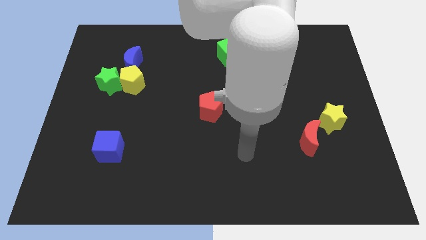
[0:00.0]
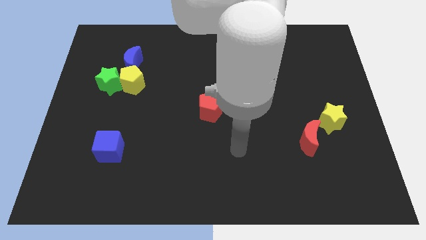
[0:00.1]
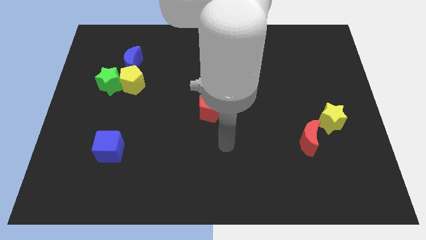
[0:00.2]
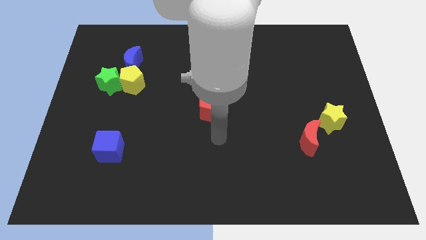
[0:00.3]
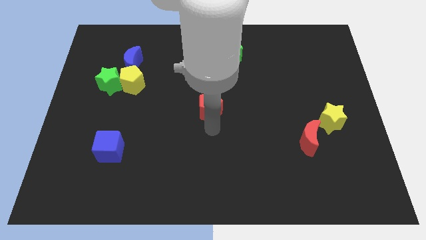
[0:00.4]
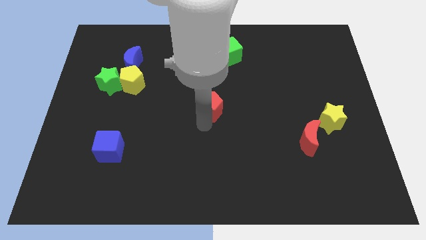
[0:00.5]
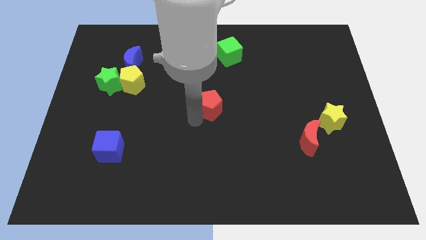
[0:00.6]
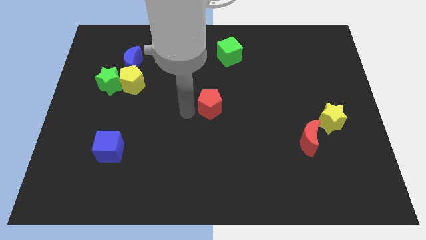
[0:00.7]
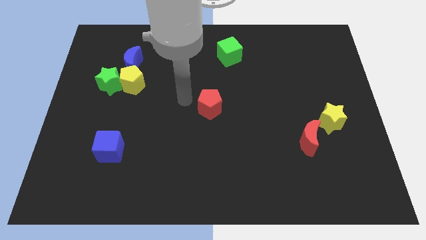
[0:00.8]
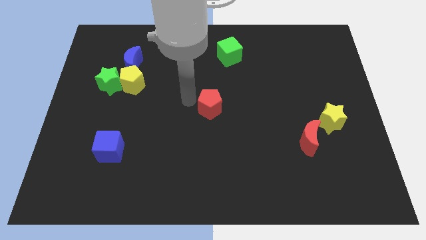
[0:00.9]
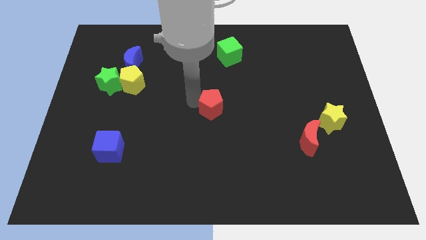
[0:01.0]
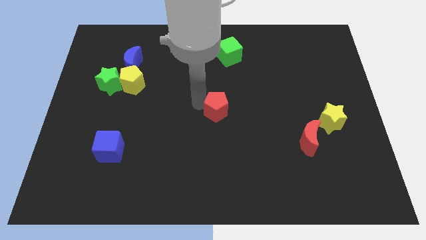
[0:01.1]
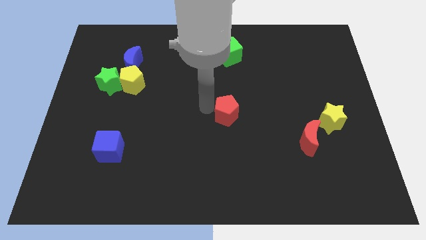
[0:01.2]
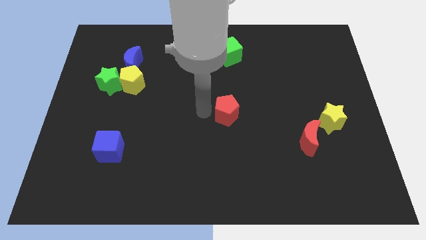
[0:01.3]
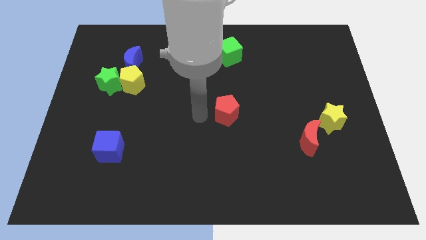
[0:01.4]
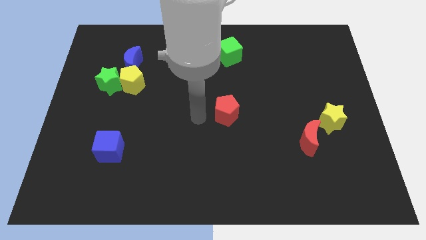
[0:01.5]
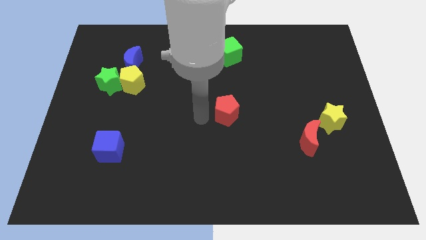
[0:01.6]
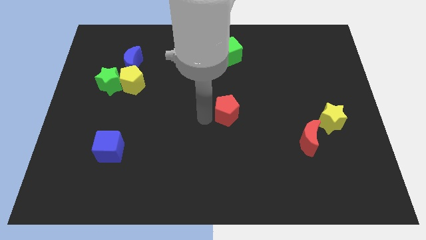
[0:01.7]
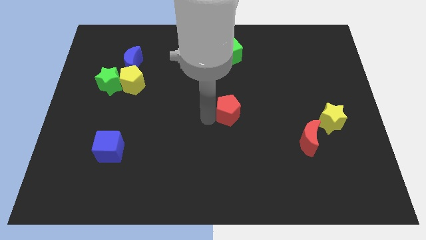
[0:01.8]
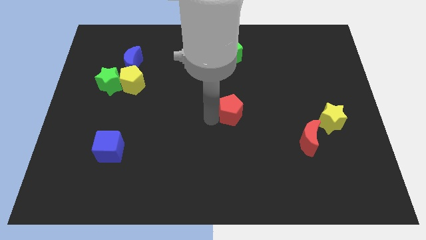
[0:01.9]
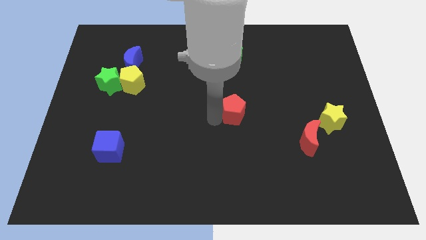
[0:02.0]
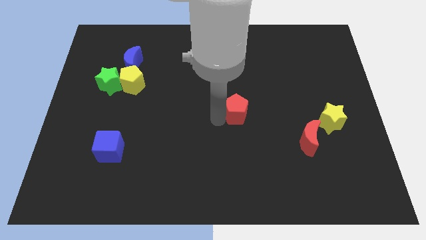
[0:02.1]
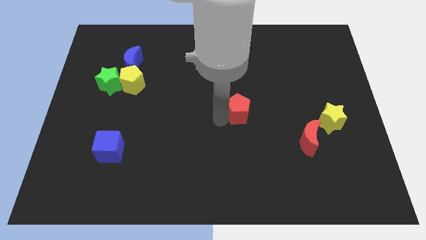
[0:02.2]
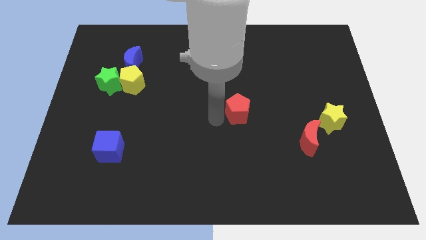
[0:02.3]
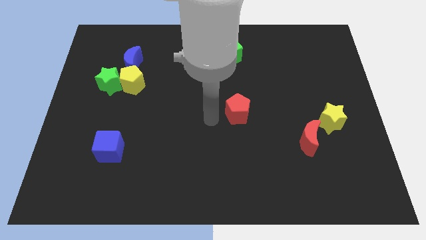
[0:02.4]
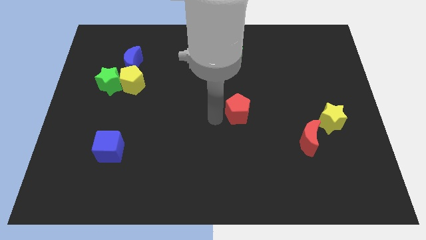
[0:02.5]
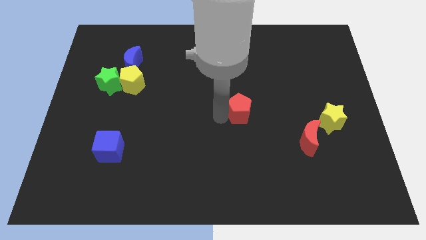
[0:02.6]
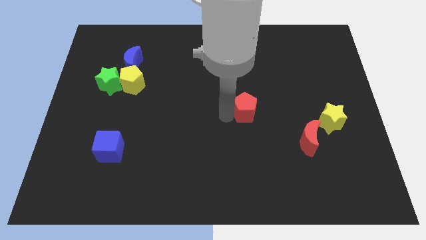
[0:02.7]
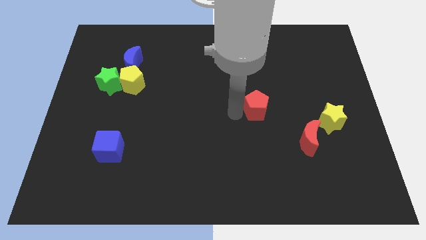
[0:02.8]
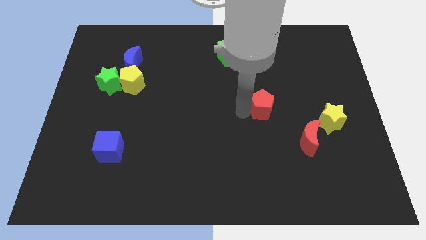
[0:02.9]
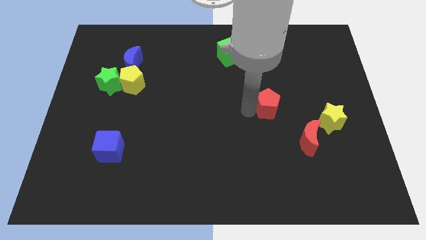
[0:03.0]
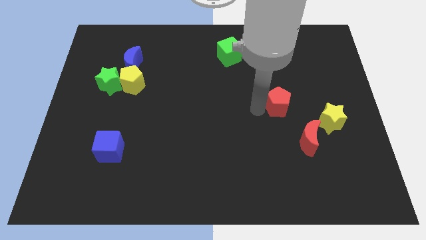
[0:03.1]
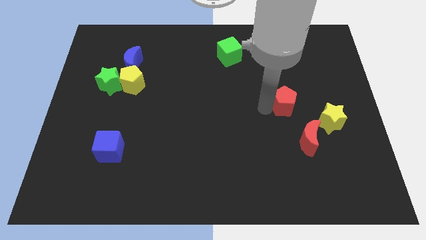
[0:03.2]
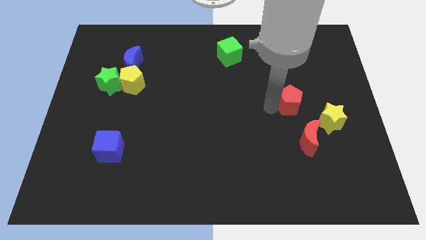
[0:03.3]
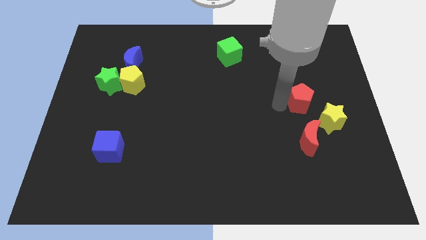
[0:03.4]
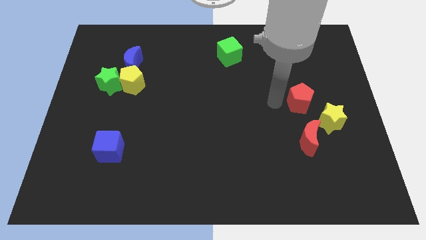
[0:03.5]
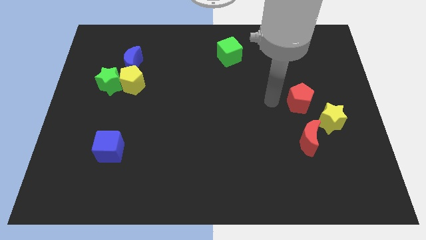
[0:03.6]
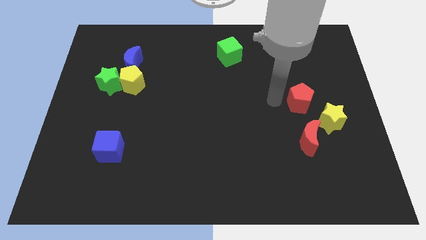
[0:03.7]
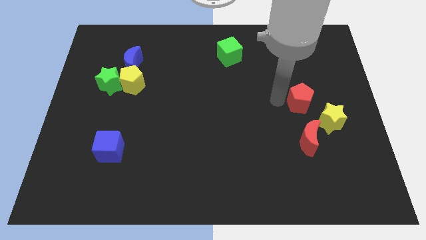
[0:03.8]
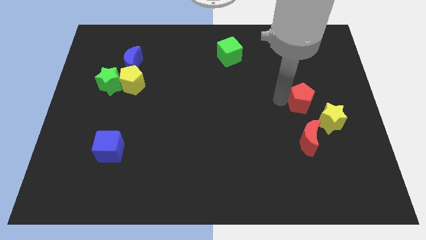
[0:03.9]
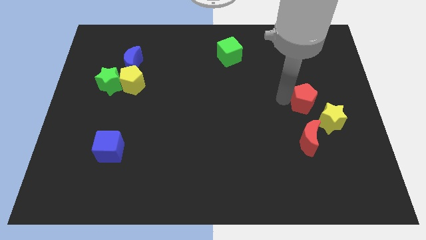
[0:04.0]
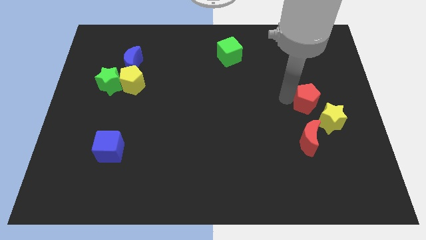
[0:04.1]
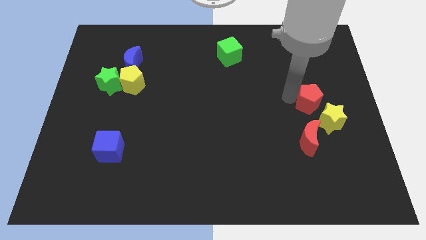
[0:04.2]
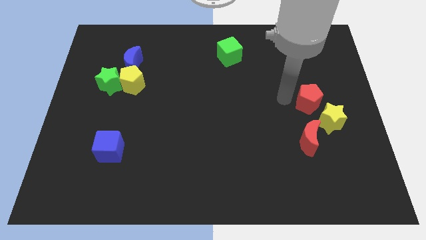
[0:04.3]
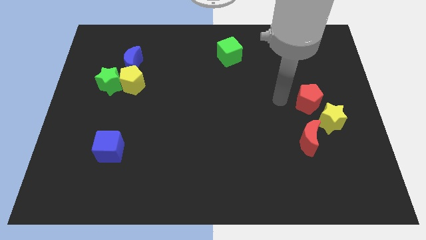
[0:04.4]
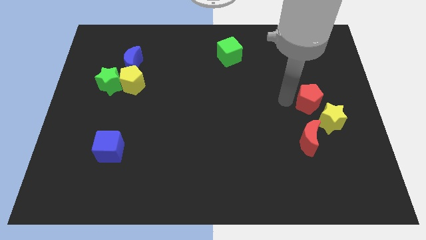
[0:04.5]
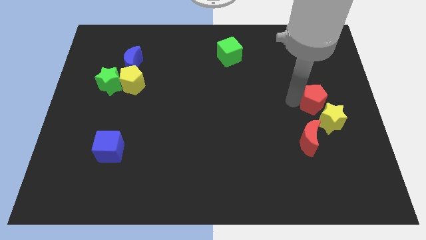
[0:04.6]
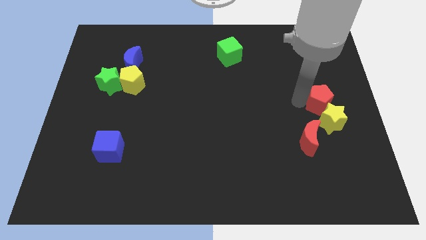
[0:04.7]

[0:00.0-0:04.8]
move the red pentagon to the center right

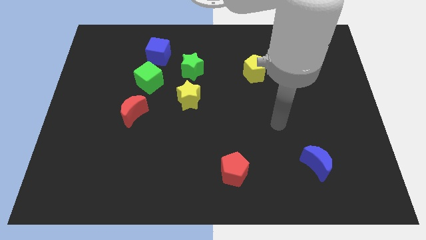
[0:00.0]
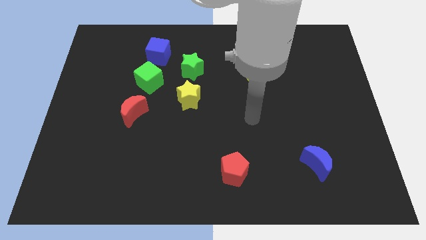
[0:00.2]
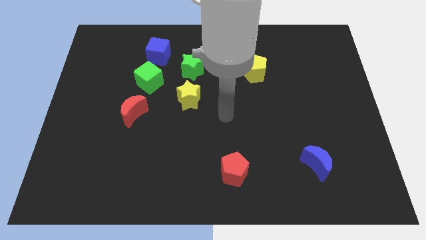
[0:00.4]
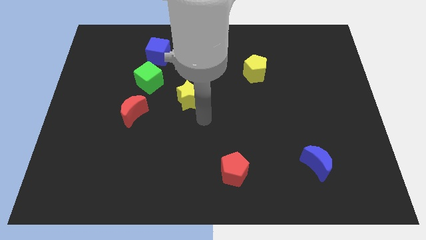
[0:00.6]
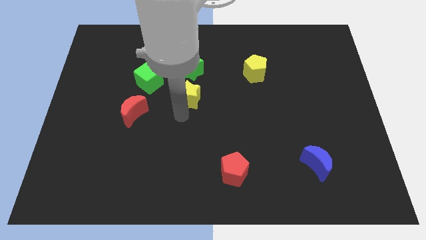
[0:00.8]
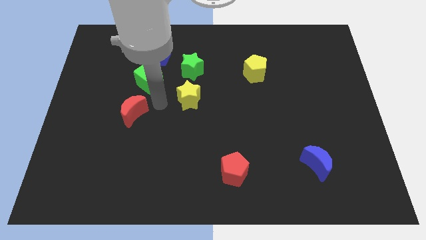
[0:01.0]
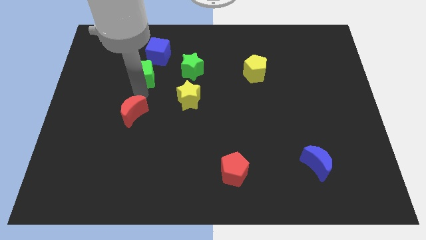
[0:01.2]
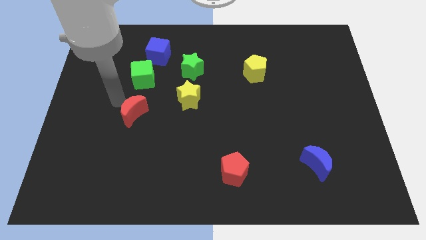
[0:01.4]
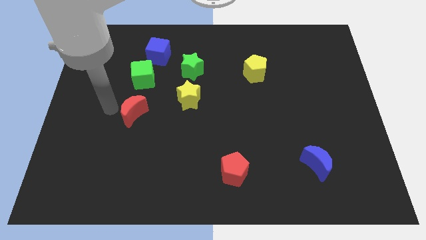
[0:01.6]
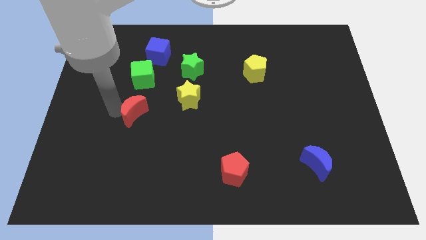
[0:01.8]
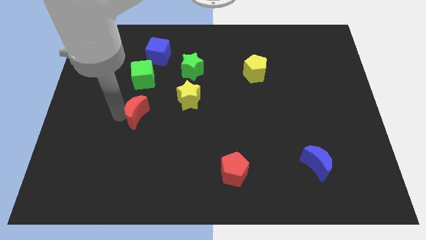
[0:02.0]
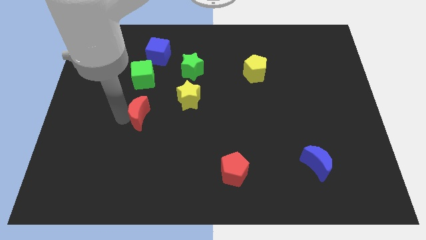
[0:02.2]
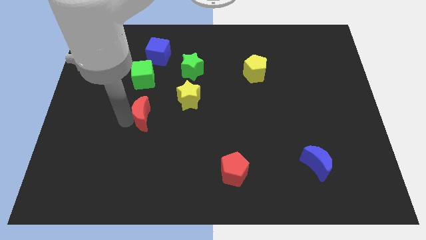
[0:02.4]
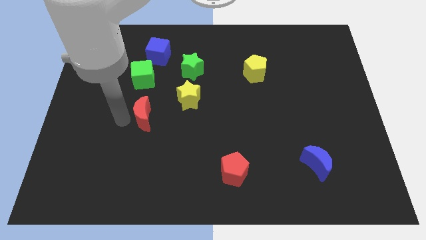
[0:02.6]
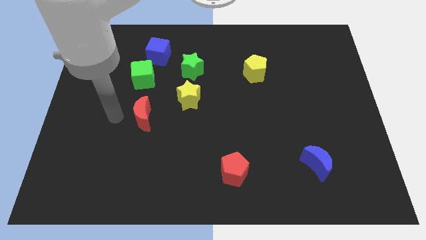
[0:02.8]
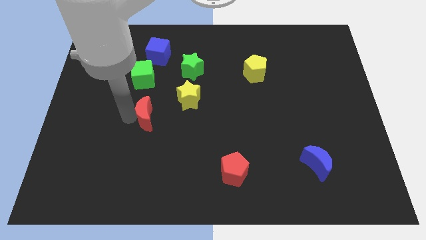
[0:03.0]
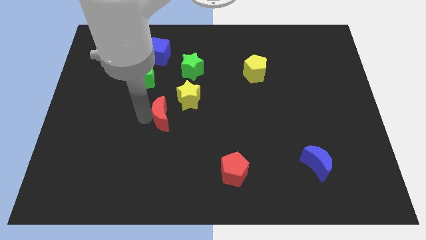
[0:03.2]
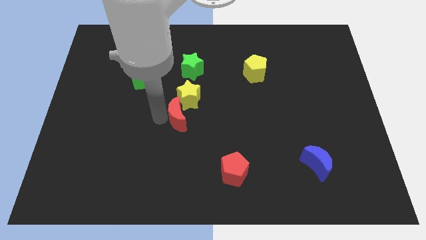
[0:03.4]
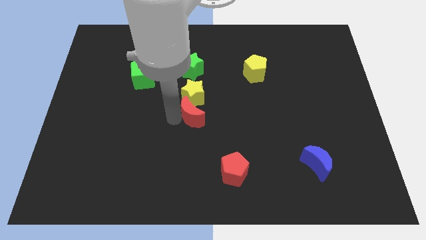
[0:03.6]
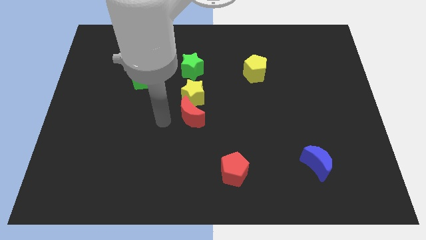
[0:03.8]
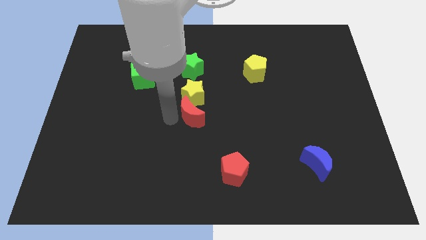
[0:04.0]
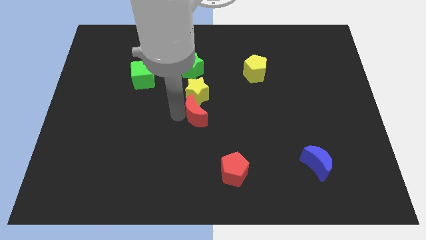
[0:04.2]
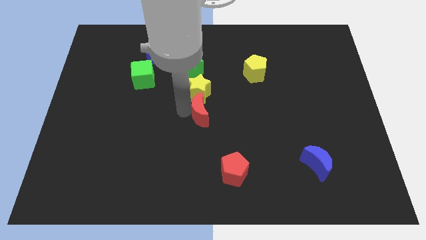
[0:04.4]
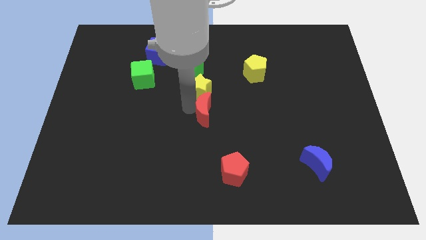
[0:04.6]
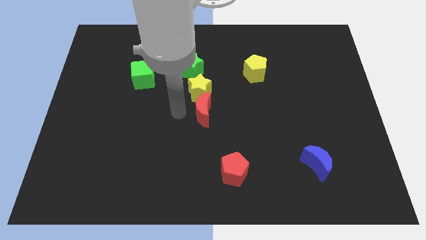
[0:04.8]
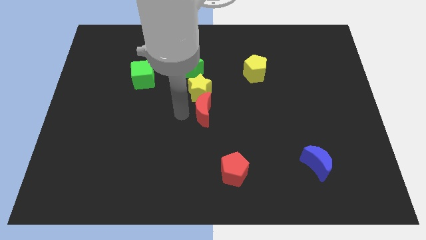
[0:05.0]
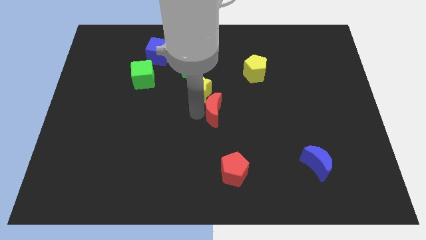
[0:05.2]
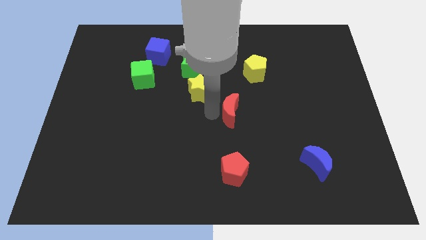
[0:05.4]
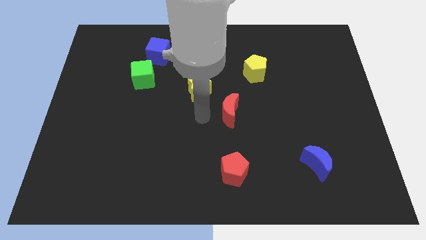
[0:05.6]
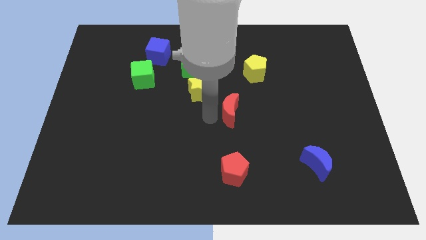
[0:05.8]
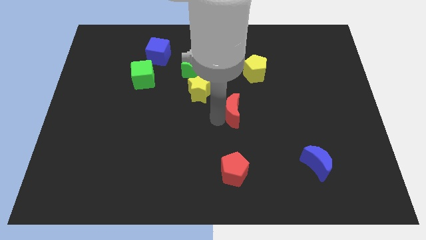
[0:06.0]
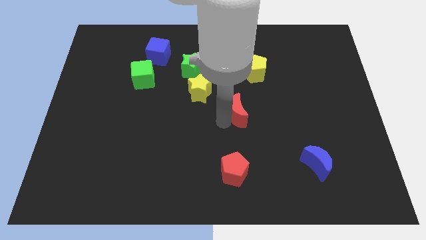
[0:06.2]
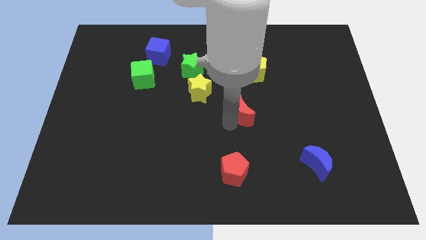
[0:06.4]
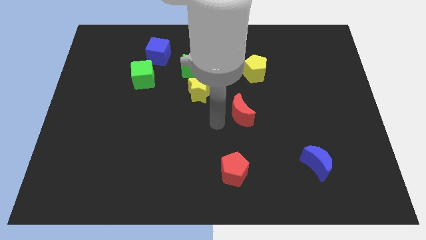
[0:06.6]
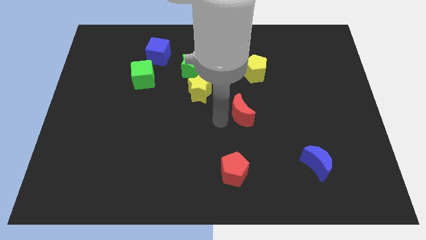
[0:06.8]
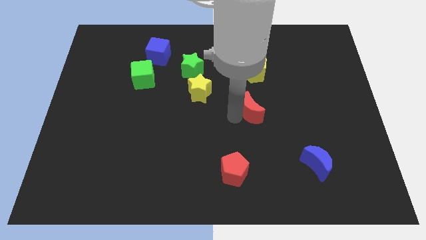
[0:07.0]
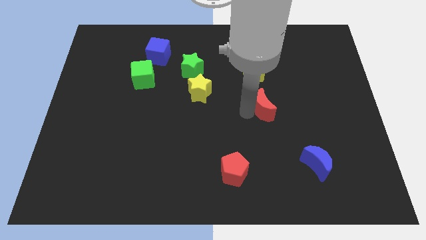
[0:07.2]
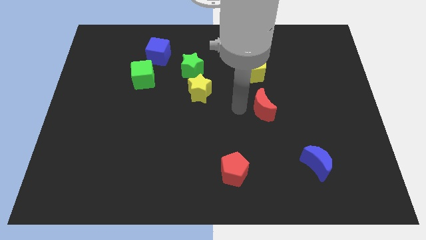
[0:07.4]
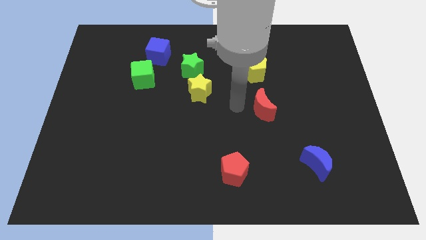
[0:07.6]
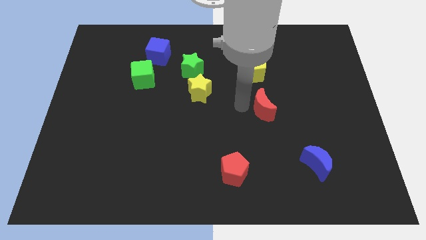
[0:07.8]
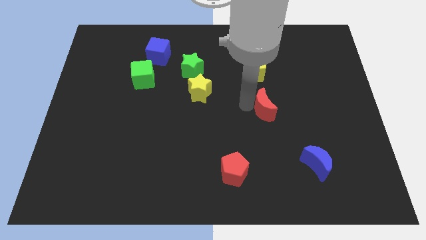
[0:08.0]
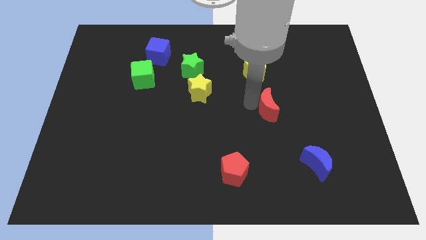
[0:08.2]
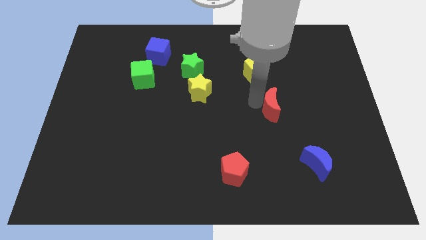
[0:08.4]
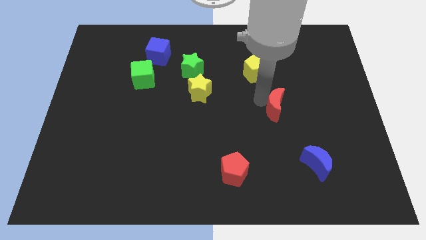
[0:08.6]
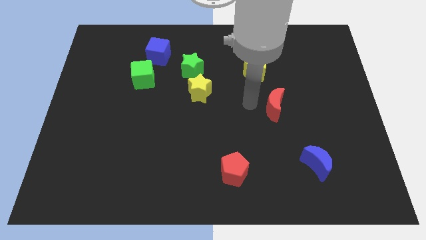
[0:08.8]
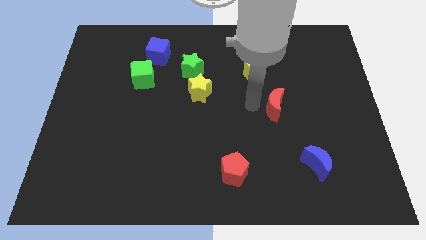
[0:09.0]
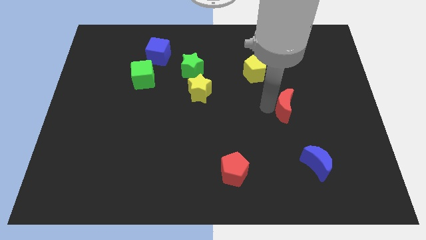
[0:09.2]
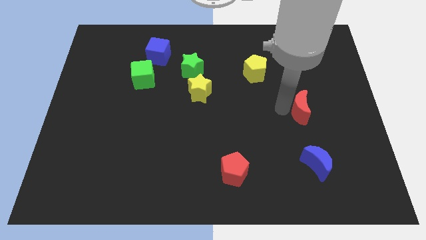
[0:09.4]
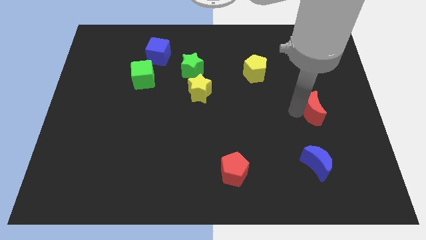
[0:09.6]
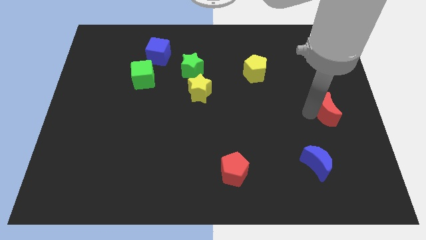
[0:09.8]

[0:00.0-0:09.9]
slide the red moon to the right side
